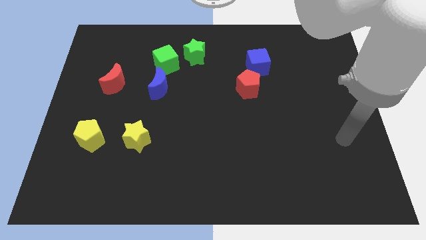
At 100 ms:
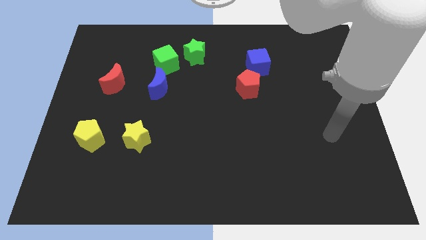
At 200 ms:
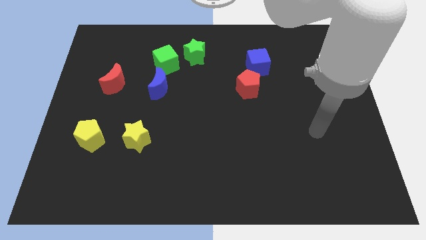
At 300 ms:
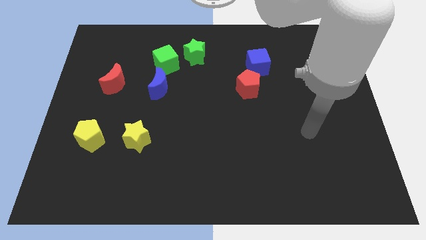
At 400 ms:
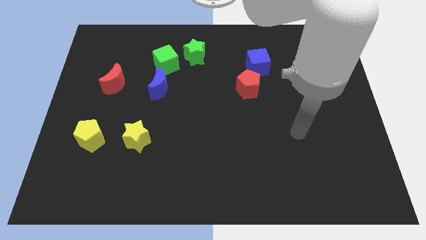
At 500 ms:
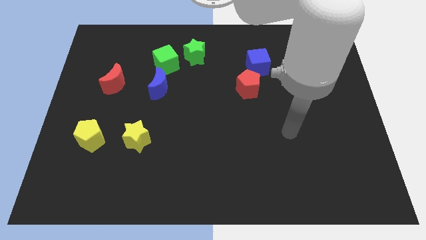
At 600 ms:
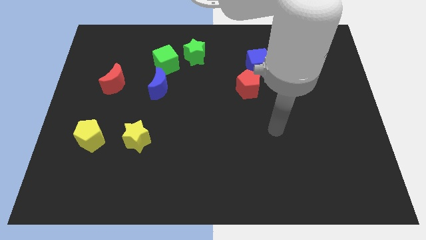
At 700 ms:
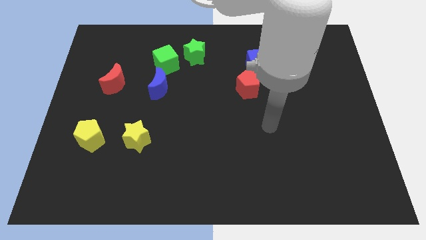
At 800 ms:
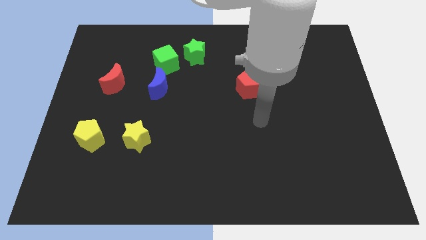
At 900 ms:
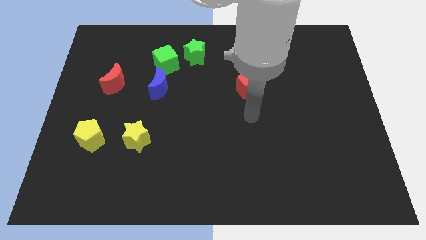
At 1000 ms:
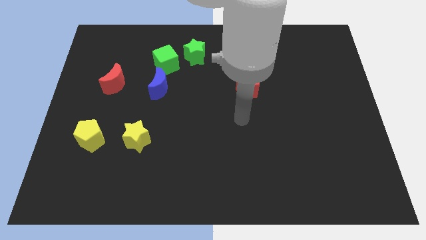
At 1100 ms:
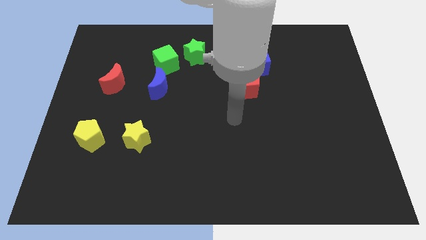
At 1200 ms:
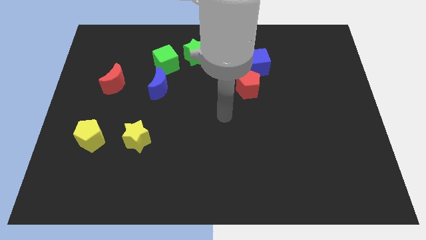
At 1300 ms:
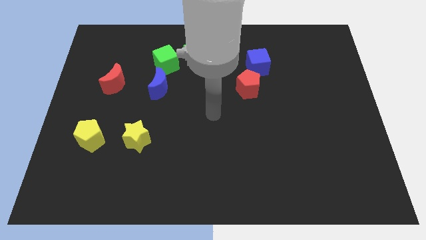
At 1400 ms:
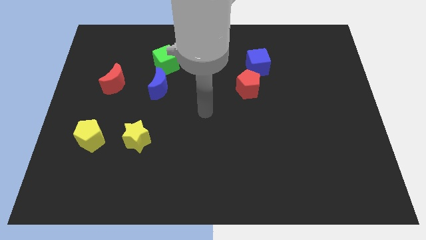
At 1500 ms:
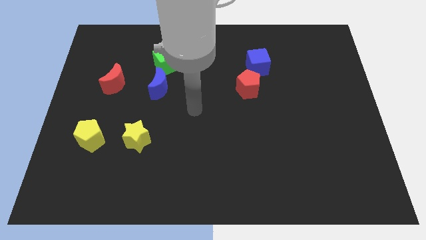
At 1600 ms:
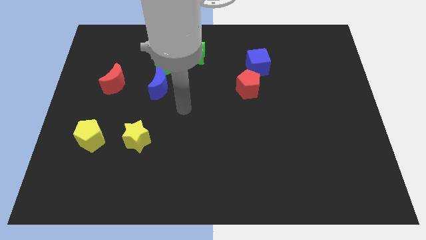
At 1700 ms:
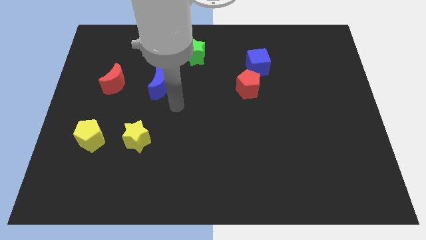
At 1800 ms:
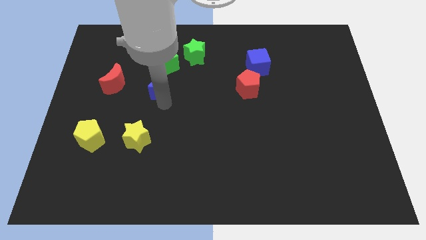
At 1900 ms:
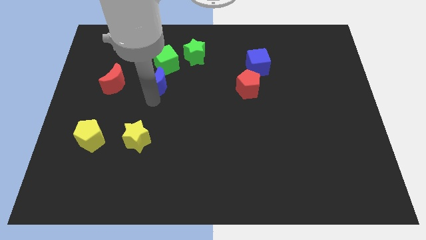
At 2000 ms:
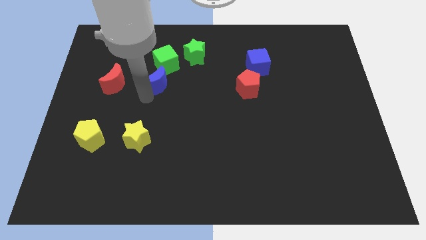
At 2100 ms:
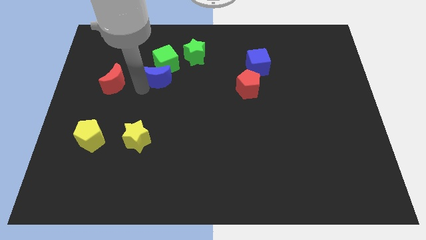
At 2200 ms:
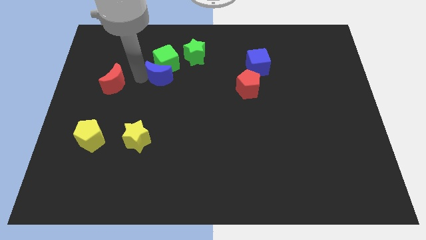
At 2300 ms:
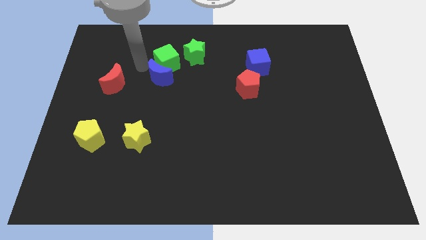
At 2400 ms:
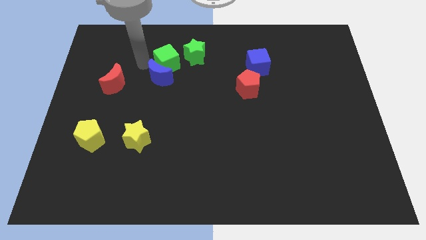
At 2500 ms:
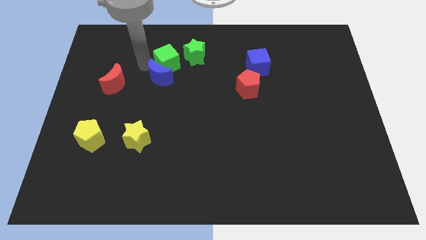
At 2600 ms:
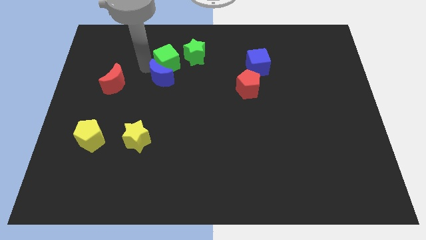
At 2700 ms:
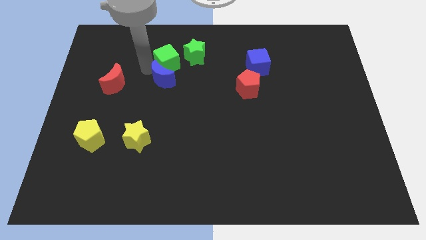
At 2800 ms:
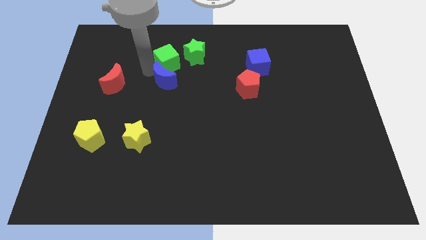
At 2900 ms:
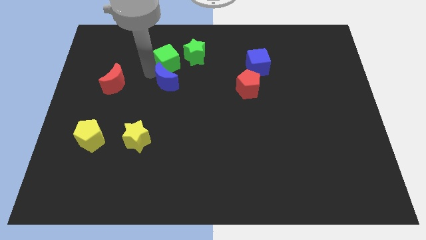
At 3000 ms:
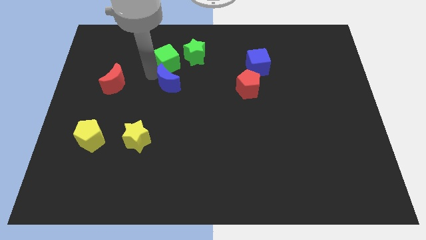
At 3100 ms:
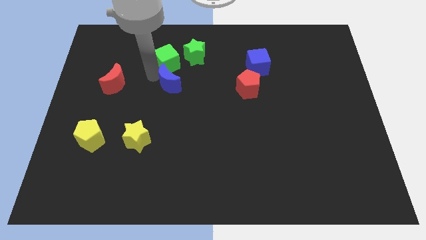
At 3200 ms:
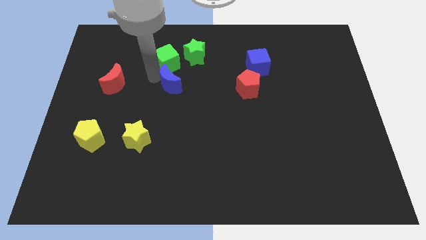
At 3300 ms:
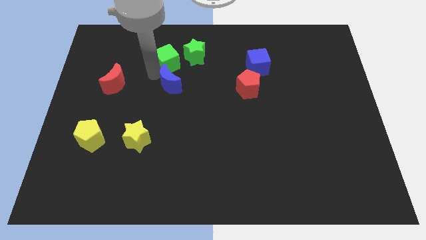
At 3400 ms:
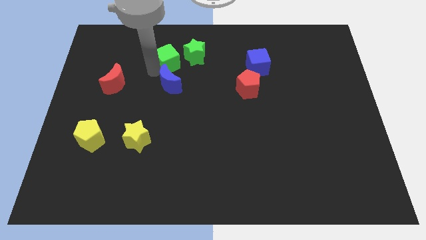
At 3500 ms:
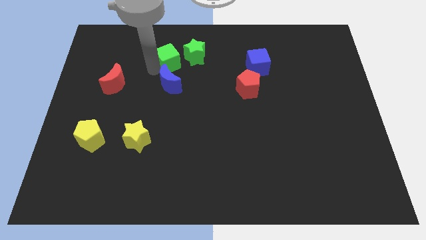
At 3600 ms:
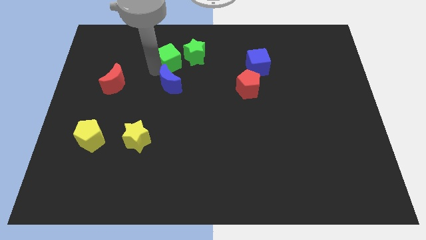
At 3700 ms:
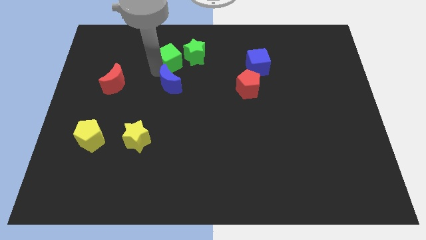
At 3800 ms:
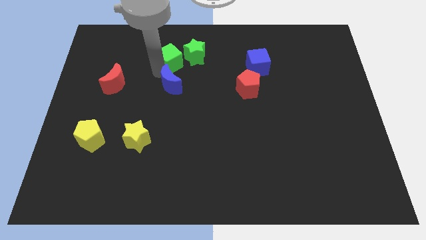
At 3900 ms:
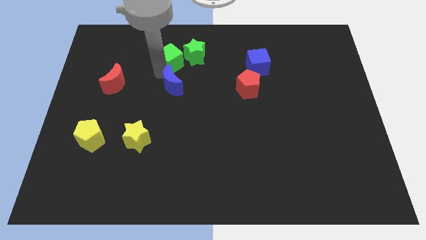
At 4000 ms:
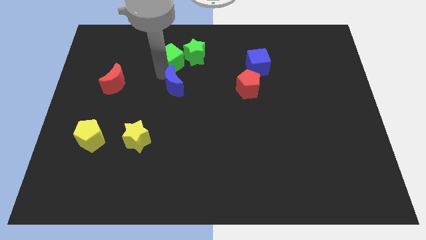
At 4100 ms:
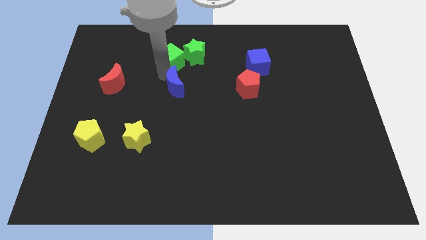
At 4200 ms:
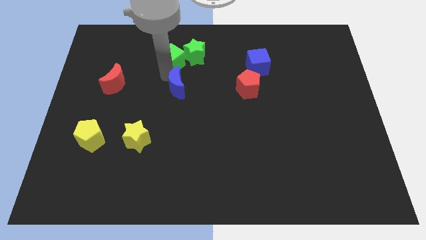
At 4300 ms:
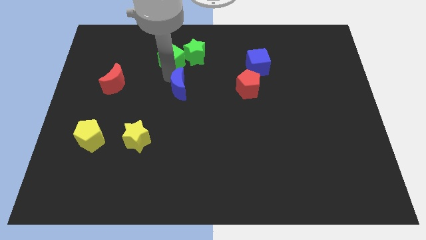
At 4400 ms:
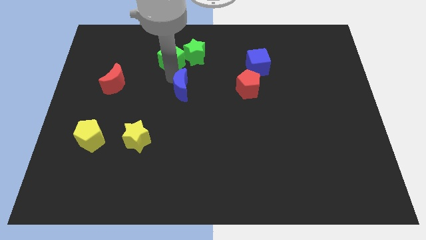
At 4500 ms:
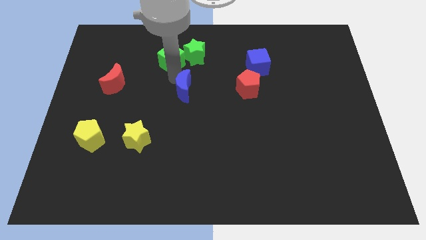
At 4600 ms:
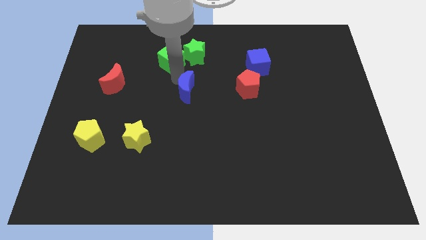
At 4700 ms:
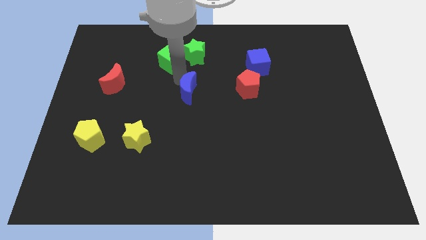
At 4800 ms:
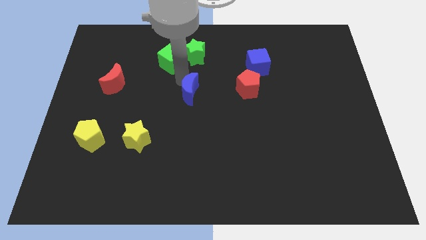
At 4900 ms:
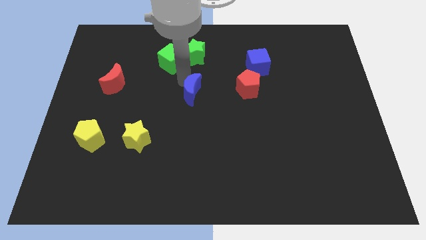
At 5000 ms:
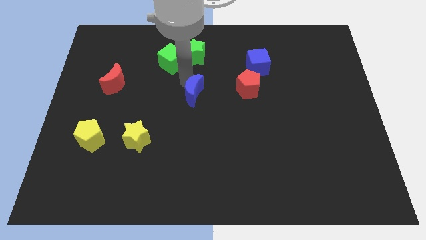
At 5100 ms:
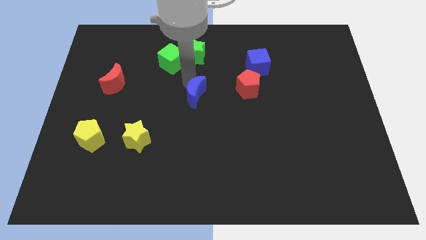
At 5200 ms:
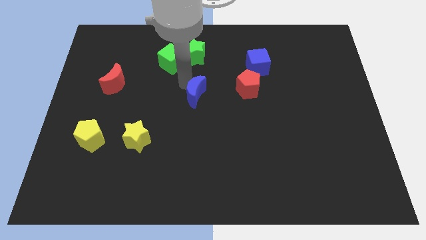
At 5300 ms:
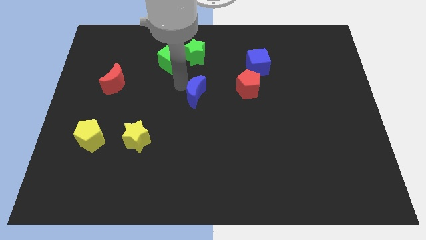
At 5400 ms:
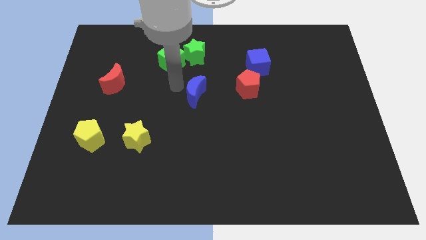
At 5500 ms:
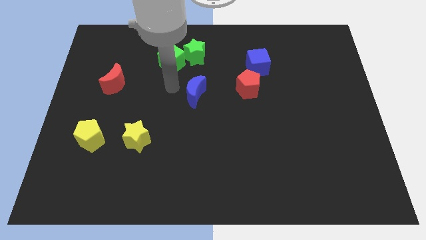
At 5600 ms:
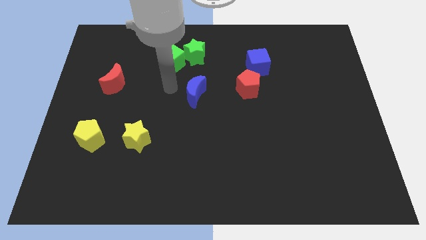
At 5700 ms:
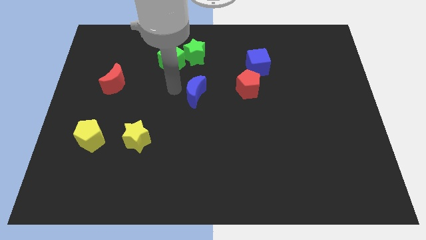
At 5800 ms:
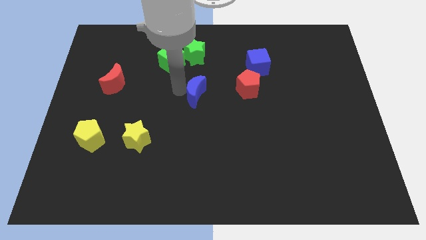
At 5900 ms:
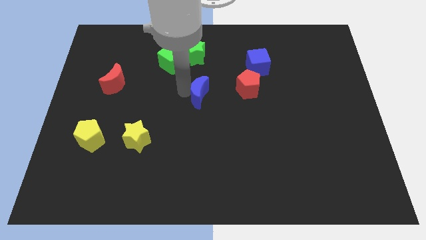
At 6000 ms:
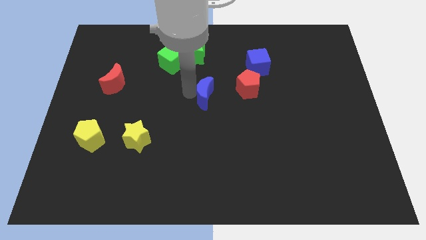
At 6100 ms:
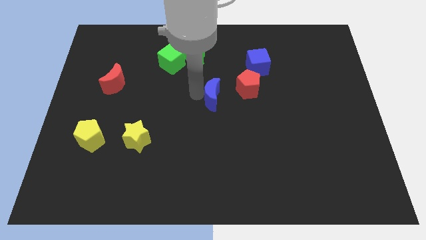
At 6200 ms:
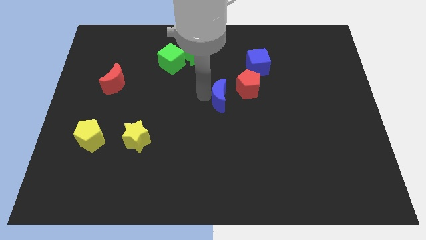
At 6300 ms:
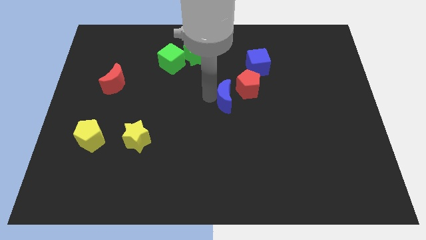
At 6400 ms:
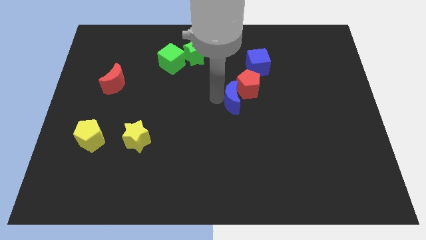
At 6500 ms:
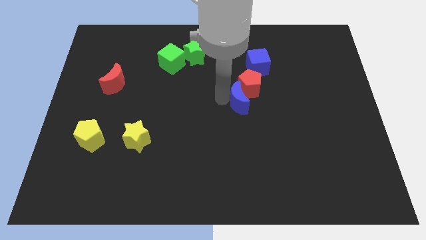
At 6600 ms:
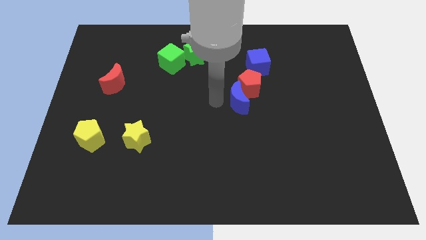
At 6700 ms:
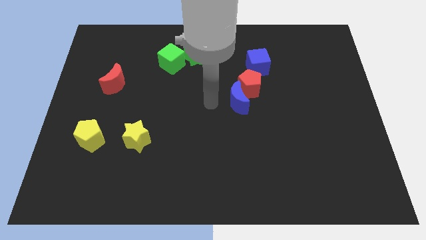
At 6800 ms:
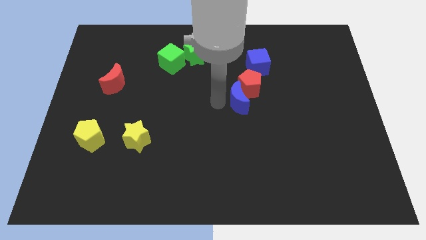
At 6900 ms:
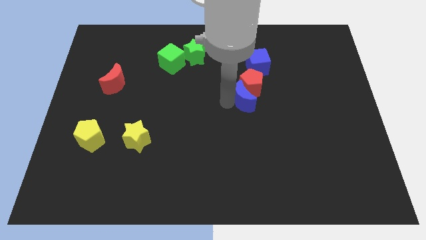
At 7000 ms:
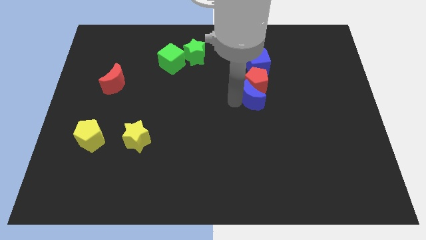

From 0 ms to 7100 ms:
push the blue moon right

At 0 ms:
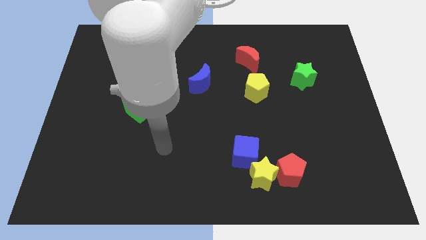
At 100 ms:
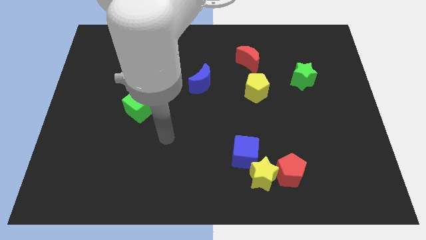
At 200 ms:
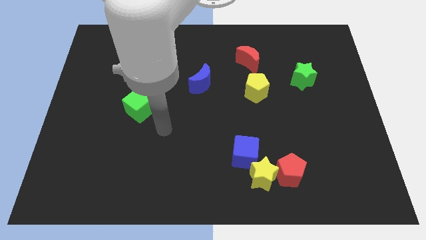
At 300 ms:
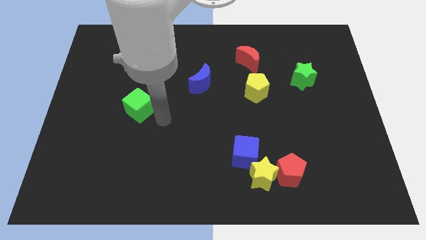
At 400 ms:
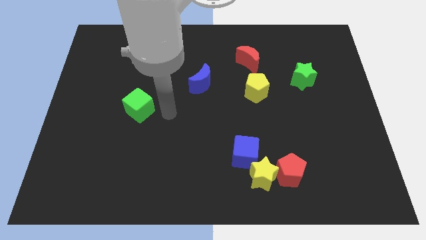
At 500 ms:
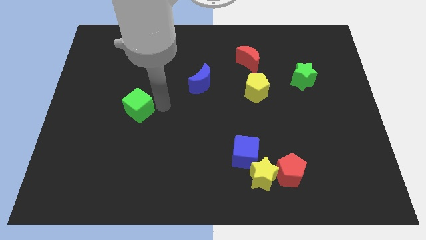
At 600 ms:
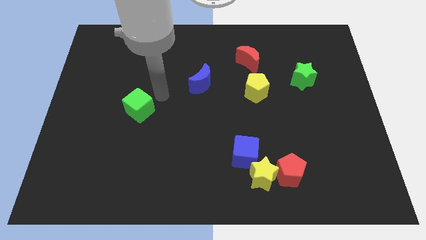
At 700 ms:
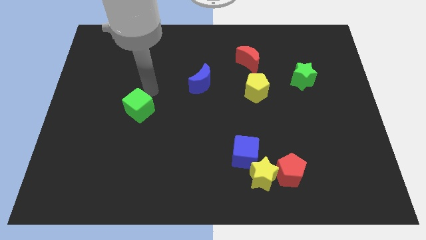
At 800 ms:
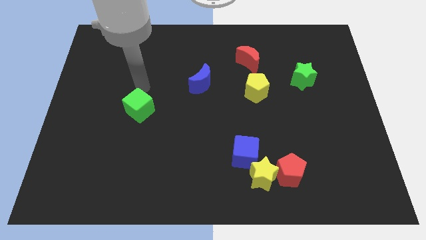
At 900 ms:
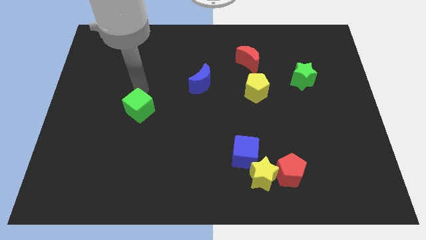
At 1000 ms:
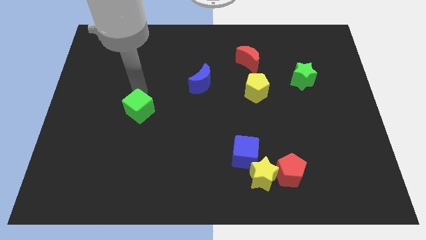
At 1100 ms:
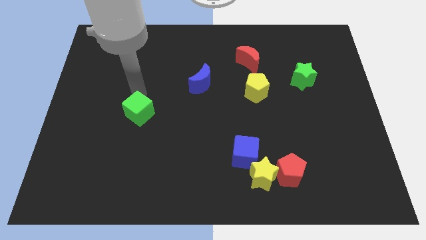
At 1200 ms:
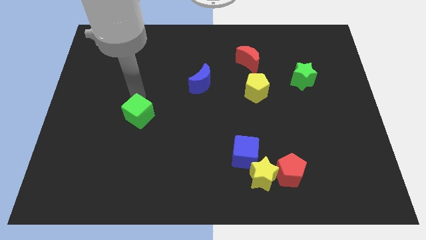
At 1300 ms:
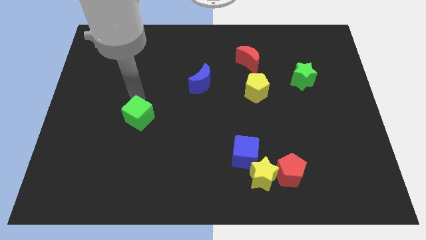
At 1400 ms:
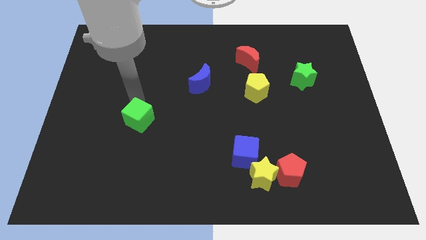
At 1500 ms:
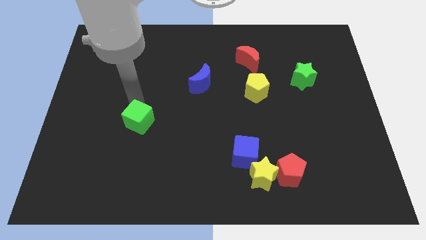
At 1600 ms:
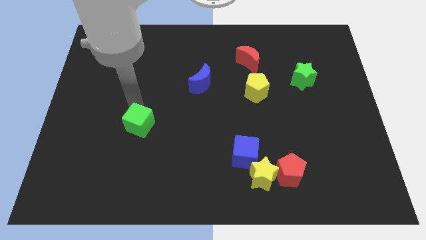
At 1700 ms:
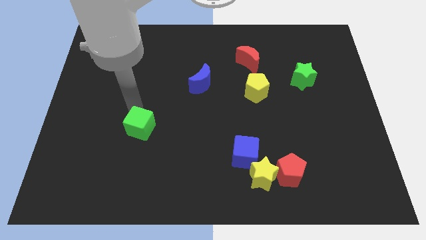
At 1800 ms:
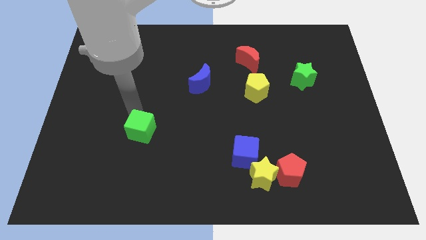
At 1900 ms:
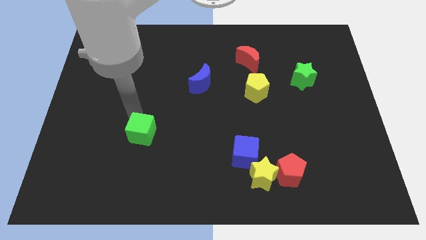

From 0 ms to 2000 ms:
slightly push the green cube down
